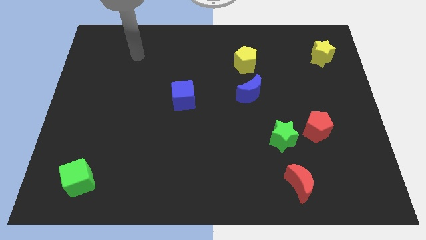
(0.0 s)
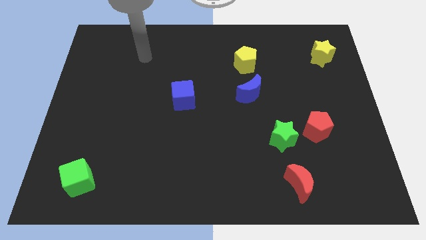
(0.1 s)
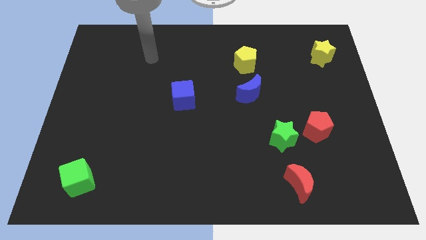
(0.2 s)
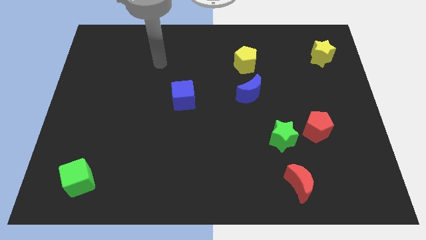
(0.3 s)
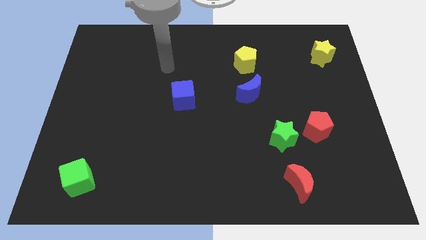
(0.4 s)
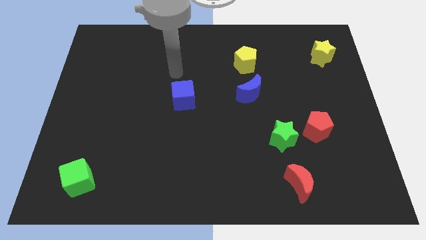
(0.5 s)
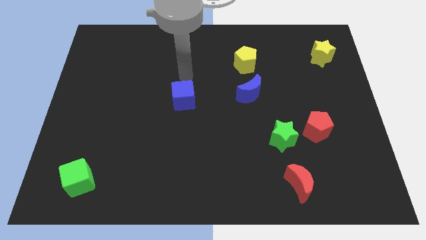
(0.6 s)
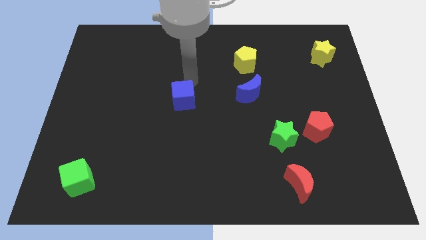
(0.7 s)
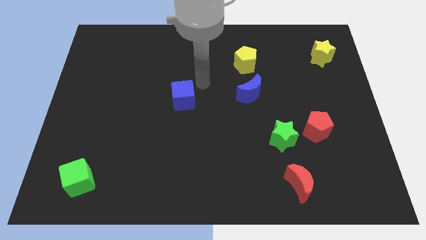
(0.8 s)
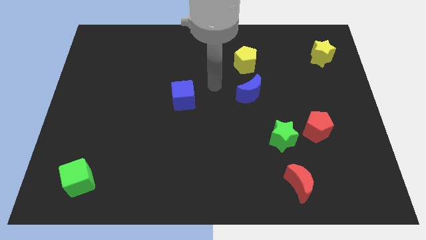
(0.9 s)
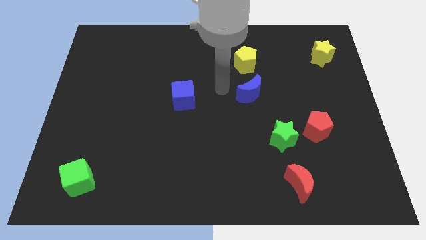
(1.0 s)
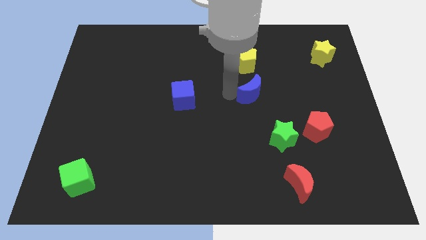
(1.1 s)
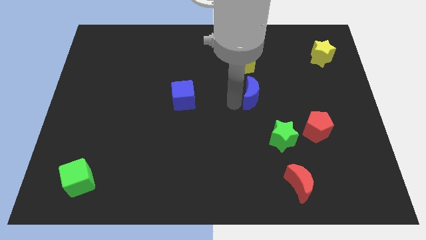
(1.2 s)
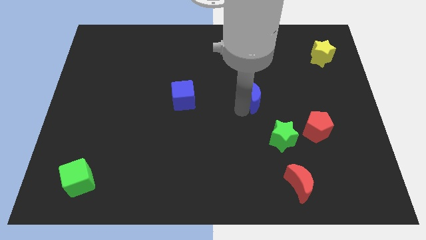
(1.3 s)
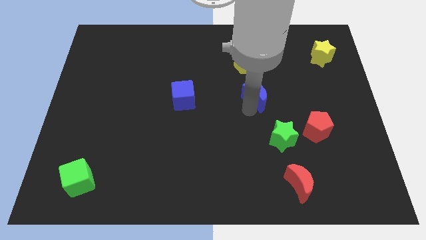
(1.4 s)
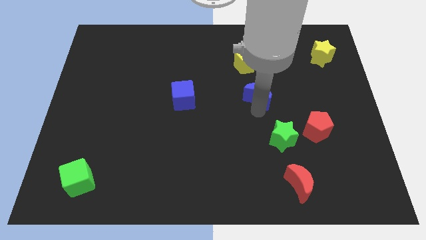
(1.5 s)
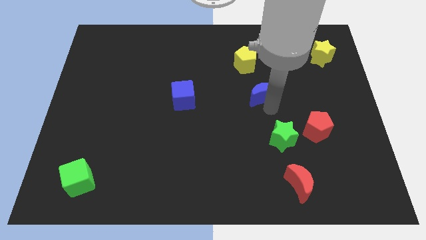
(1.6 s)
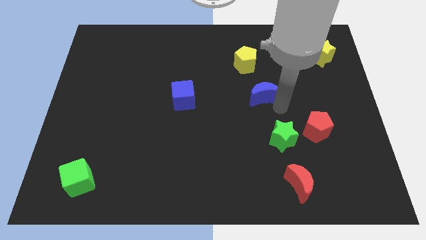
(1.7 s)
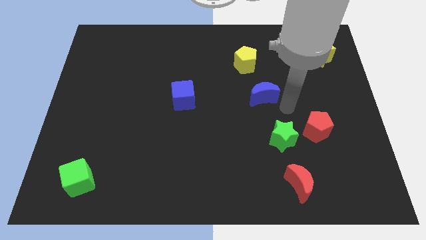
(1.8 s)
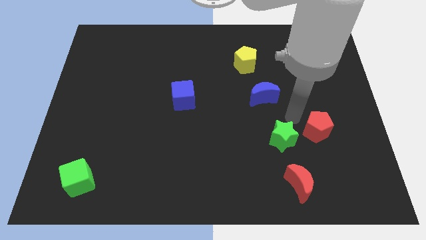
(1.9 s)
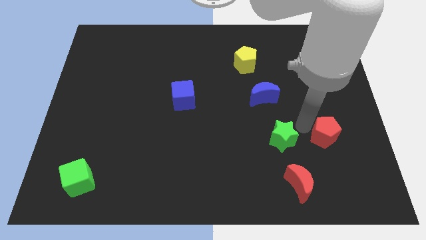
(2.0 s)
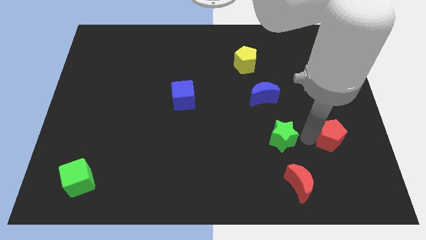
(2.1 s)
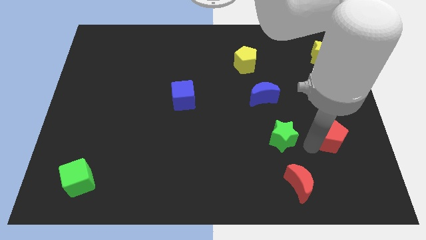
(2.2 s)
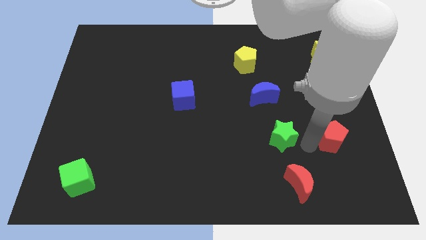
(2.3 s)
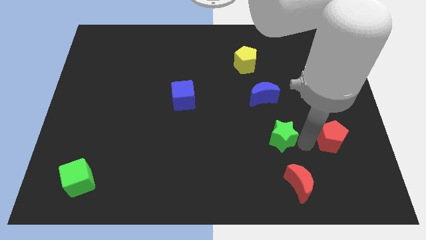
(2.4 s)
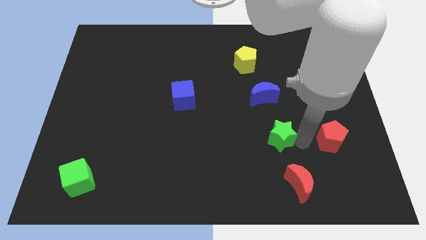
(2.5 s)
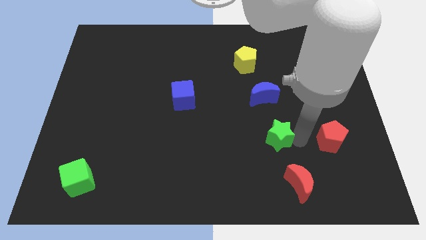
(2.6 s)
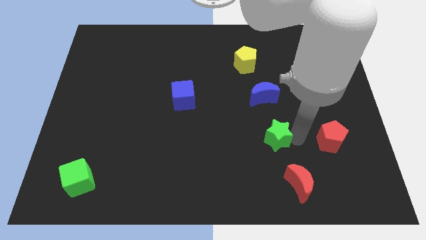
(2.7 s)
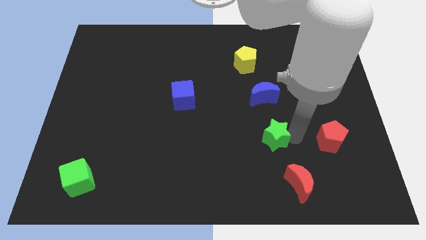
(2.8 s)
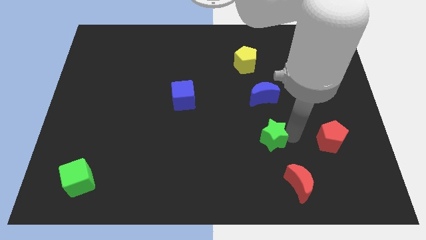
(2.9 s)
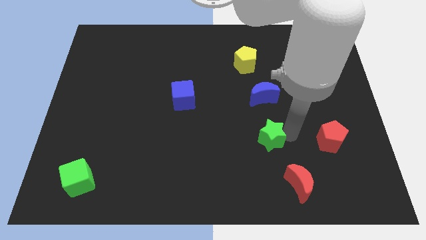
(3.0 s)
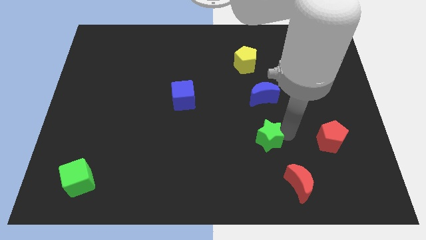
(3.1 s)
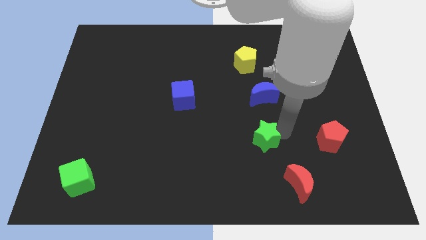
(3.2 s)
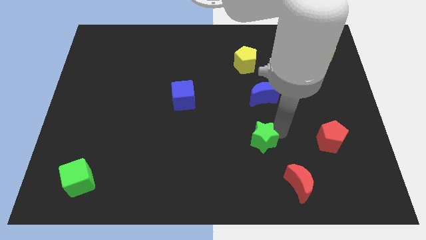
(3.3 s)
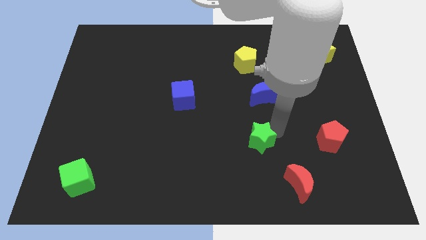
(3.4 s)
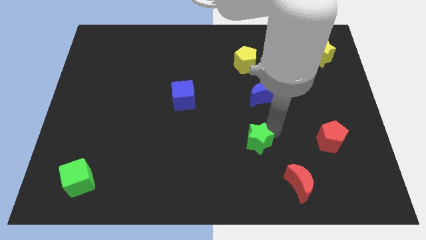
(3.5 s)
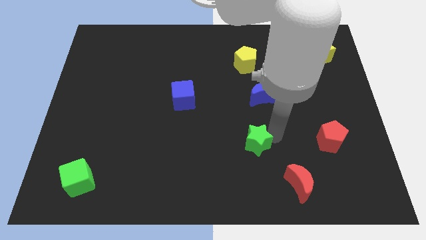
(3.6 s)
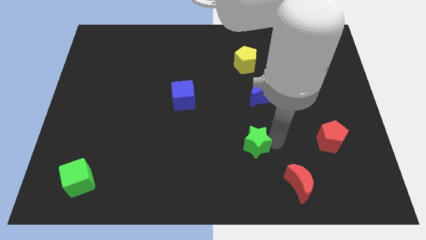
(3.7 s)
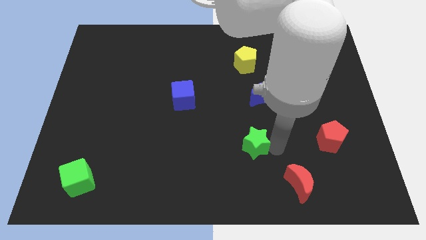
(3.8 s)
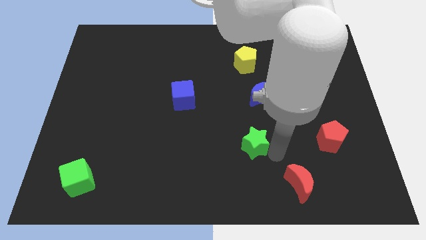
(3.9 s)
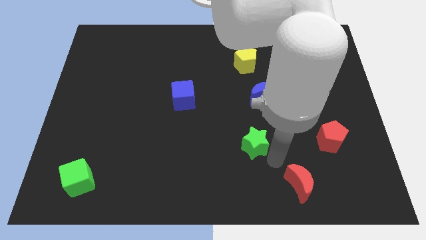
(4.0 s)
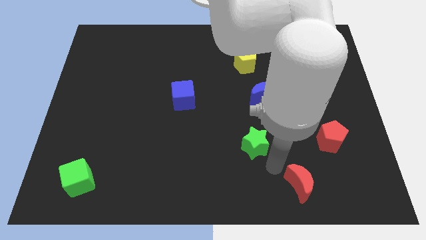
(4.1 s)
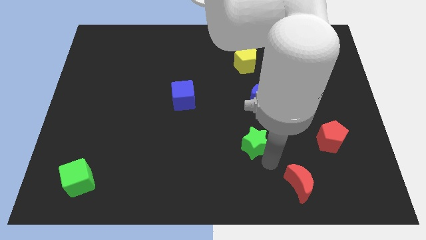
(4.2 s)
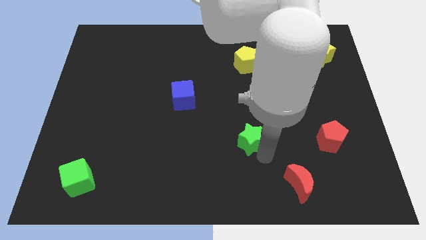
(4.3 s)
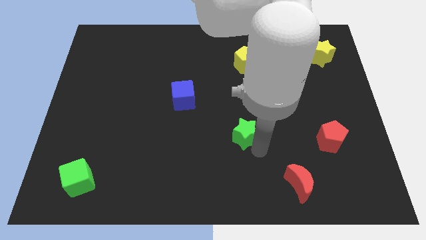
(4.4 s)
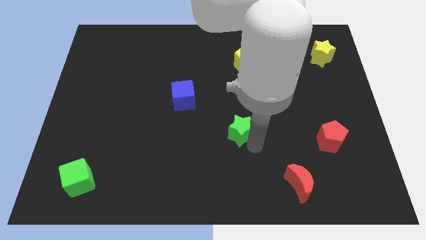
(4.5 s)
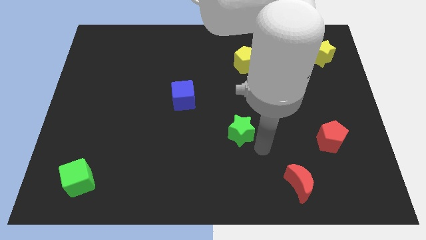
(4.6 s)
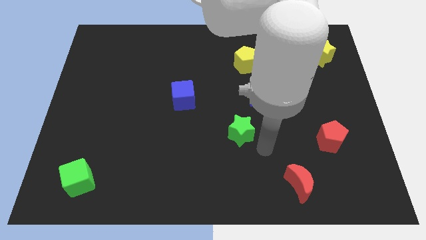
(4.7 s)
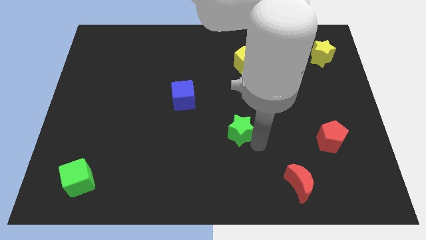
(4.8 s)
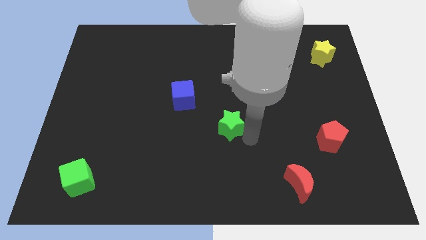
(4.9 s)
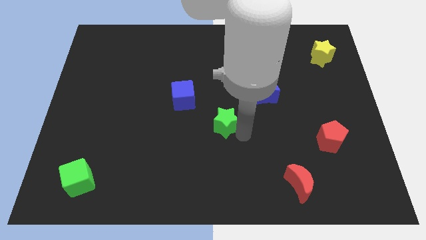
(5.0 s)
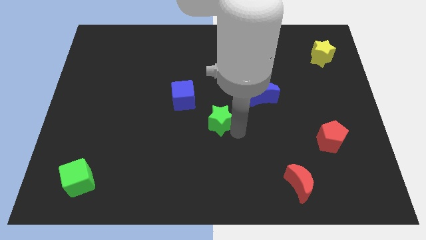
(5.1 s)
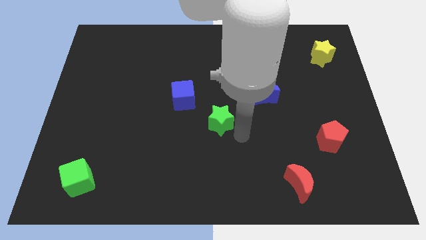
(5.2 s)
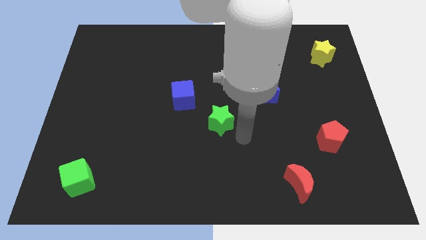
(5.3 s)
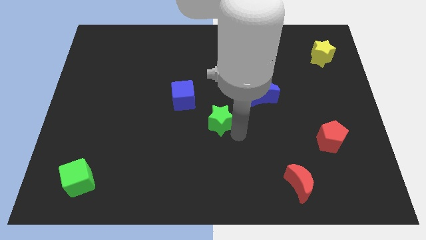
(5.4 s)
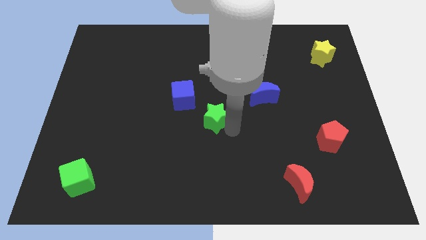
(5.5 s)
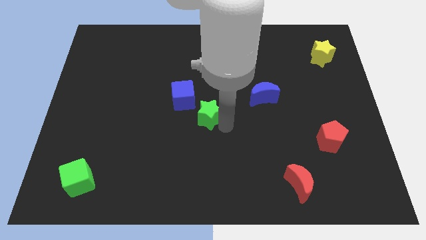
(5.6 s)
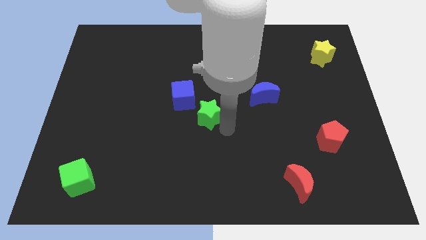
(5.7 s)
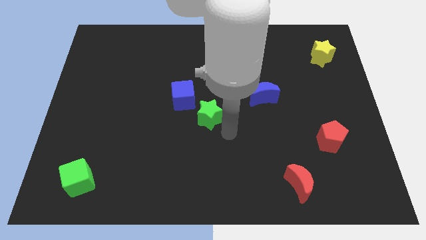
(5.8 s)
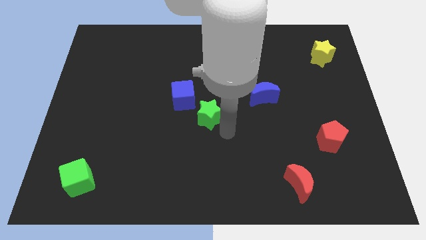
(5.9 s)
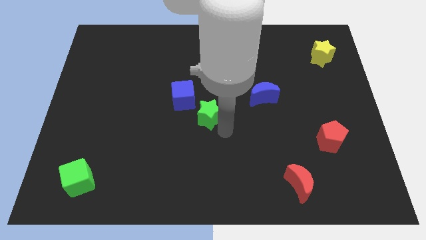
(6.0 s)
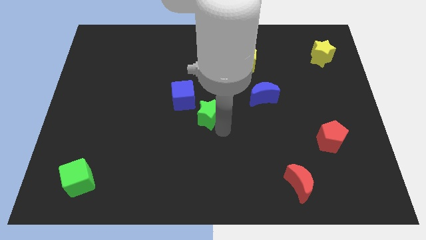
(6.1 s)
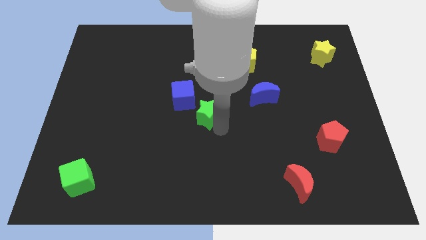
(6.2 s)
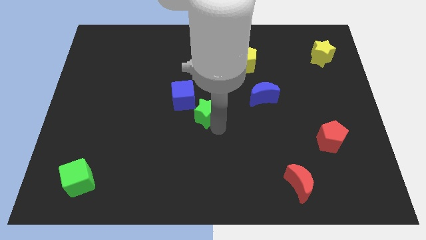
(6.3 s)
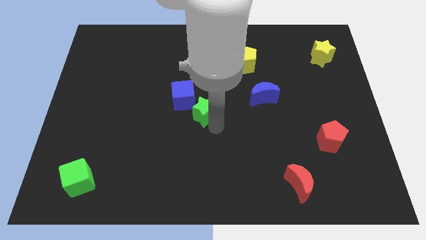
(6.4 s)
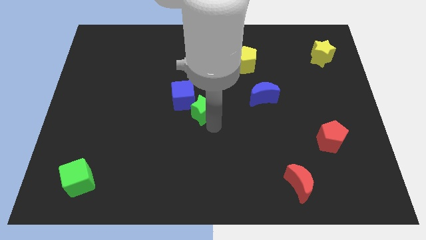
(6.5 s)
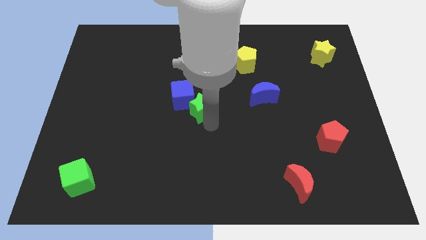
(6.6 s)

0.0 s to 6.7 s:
put the green star towards the blue cube
